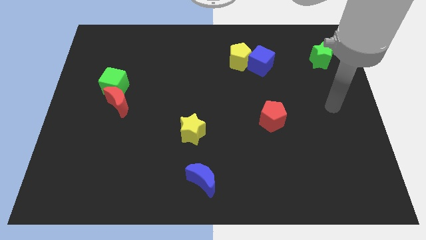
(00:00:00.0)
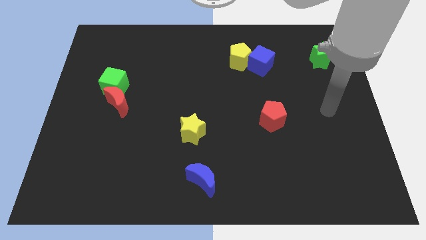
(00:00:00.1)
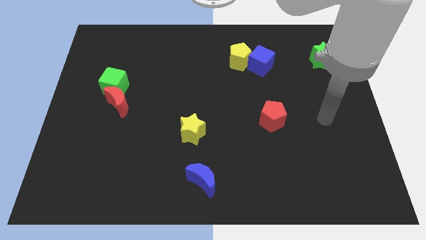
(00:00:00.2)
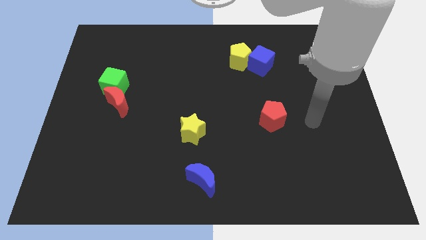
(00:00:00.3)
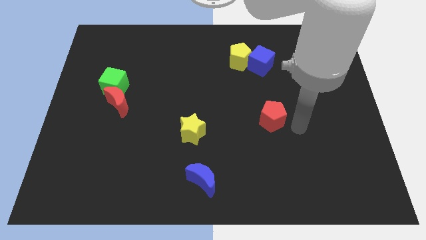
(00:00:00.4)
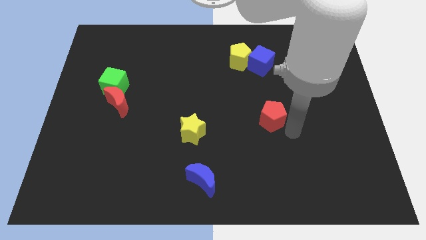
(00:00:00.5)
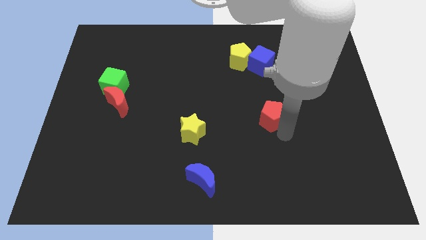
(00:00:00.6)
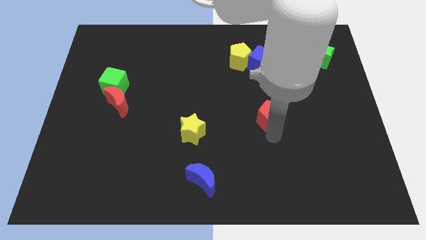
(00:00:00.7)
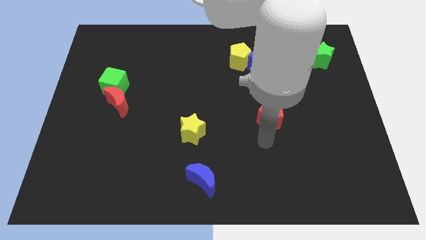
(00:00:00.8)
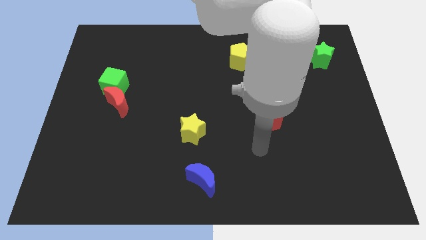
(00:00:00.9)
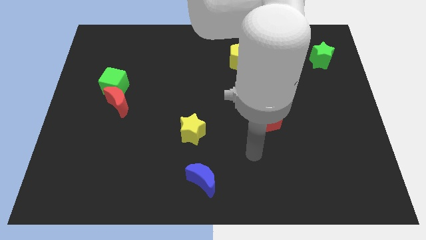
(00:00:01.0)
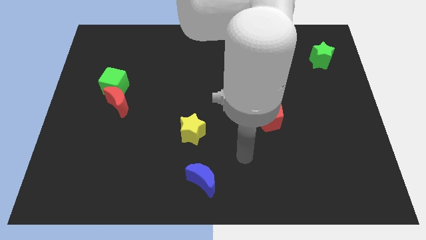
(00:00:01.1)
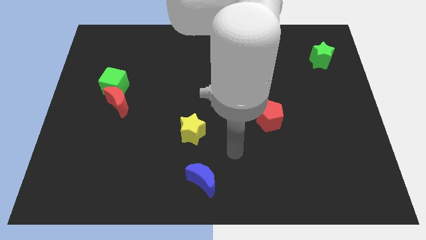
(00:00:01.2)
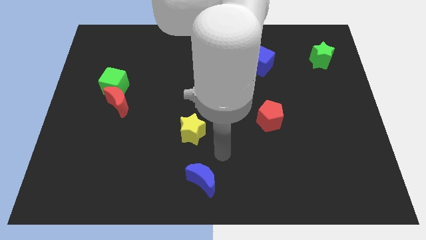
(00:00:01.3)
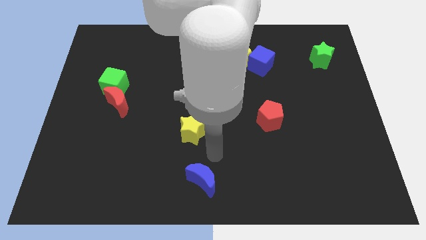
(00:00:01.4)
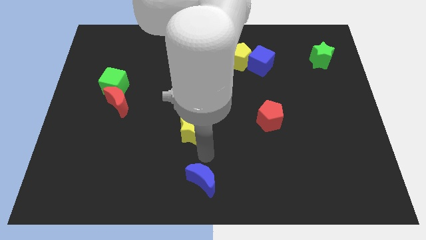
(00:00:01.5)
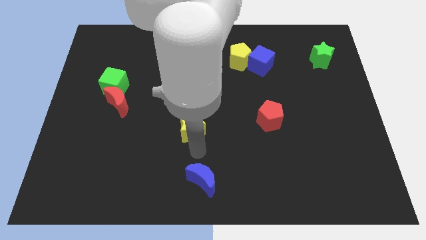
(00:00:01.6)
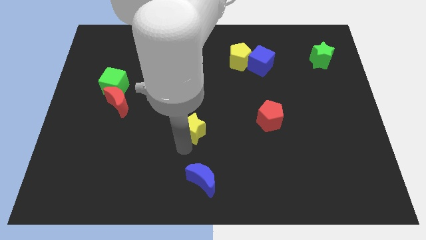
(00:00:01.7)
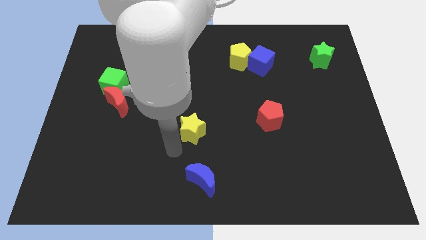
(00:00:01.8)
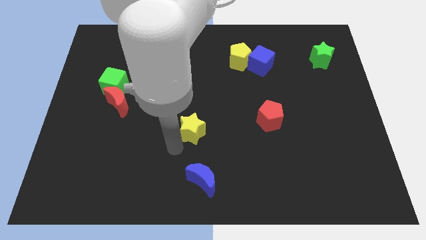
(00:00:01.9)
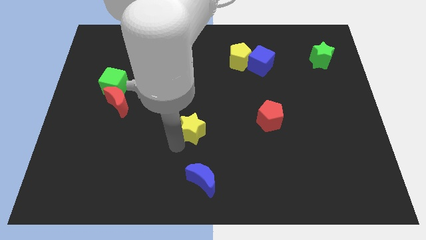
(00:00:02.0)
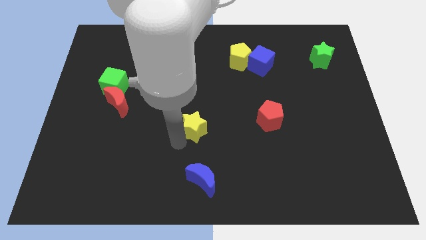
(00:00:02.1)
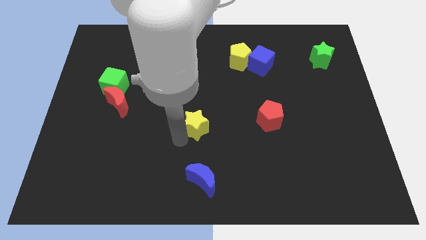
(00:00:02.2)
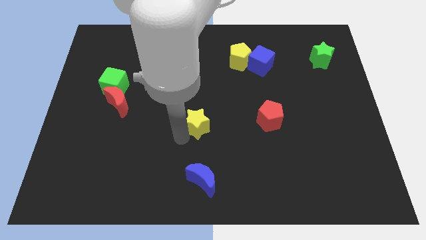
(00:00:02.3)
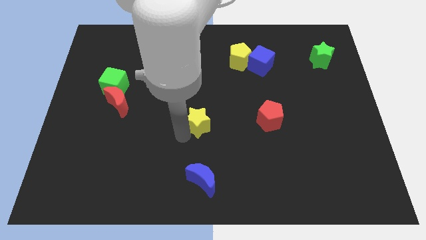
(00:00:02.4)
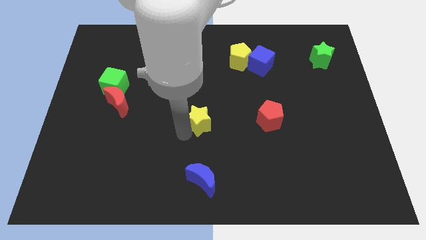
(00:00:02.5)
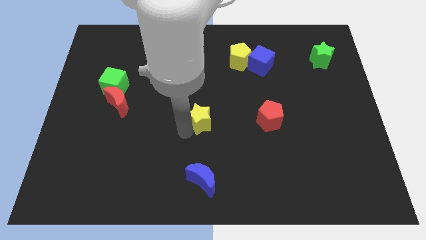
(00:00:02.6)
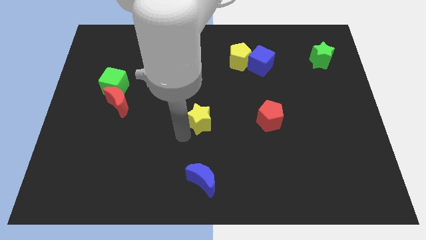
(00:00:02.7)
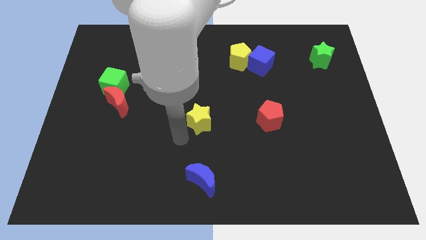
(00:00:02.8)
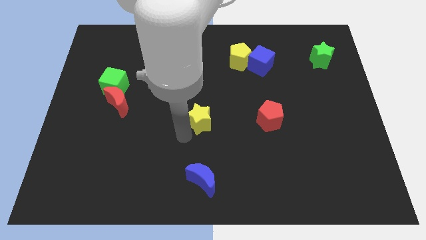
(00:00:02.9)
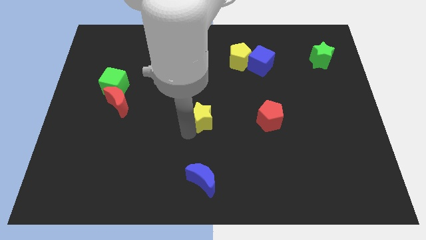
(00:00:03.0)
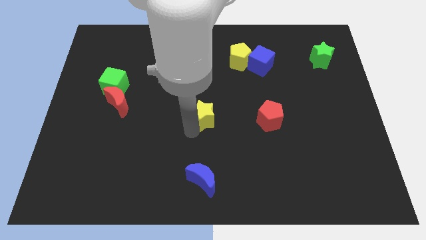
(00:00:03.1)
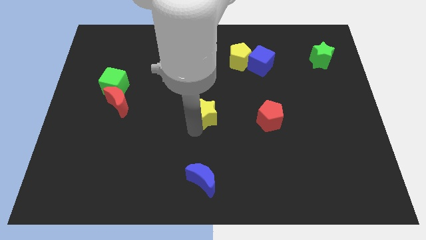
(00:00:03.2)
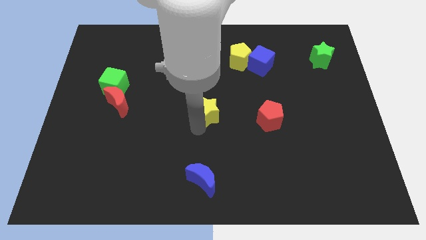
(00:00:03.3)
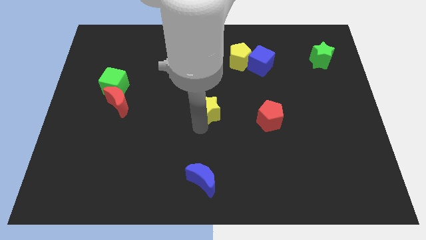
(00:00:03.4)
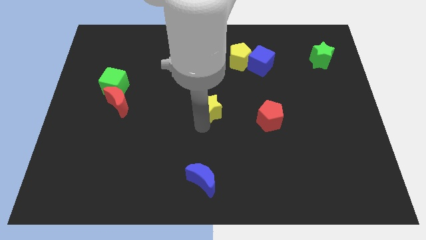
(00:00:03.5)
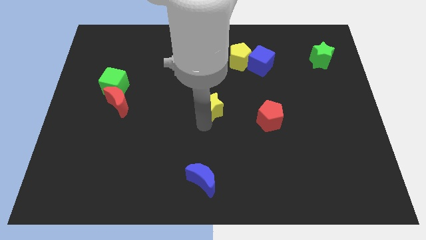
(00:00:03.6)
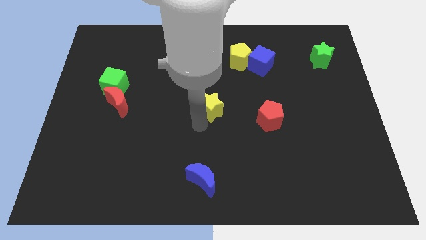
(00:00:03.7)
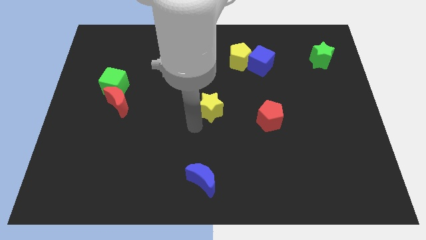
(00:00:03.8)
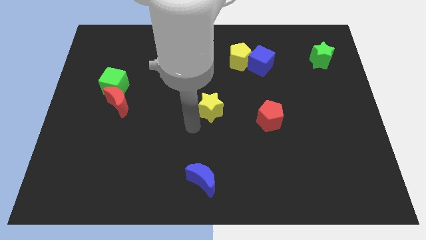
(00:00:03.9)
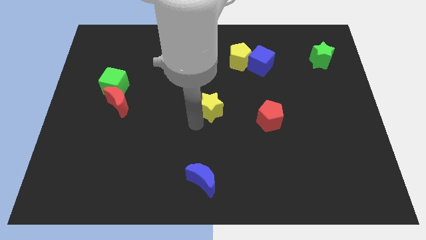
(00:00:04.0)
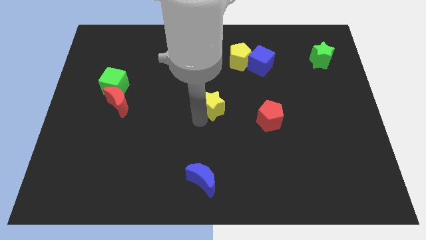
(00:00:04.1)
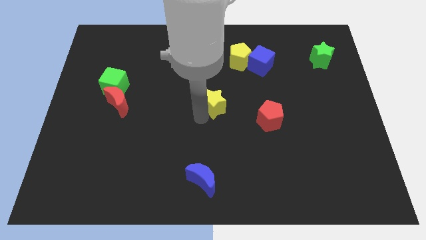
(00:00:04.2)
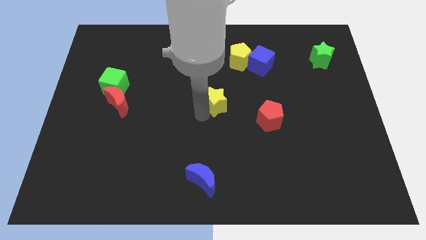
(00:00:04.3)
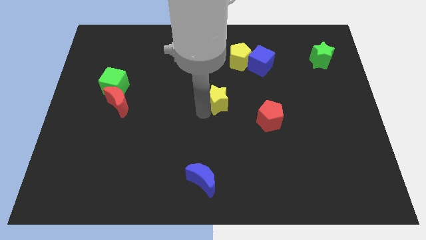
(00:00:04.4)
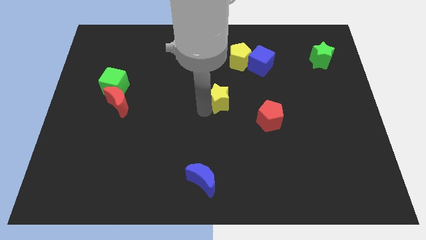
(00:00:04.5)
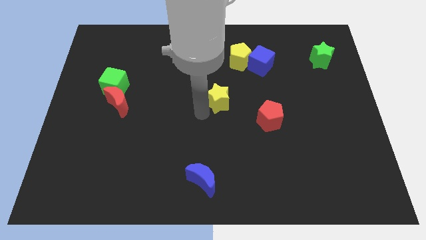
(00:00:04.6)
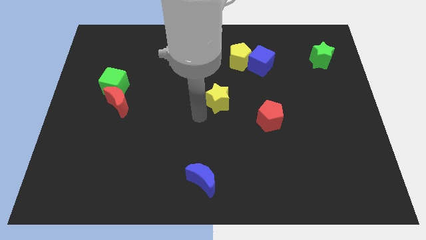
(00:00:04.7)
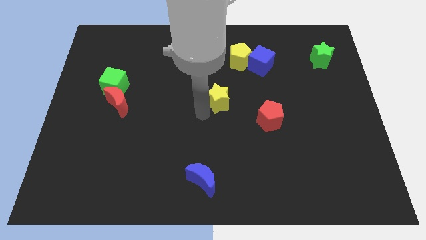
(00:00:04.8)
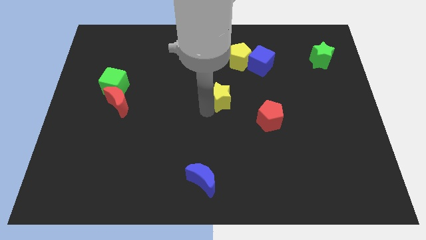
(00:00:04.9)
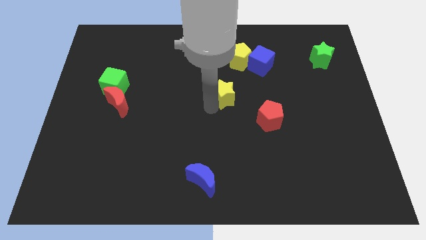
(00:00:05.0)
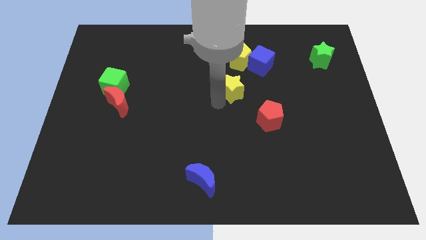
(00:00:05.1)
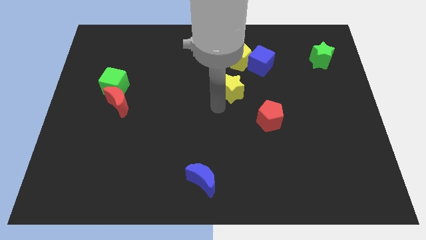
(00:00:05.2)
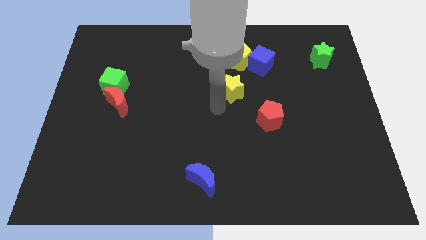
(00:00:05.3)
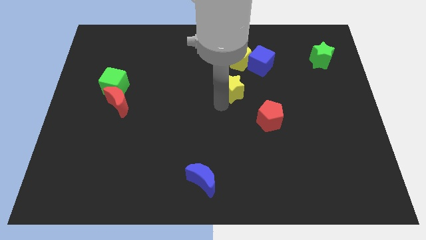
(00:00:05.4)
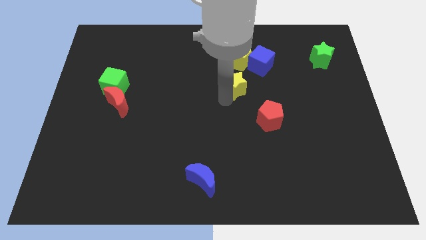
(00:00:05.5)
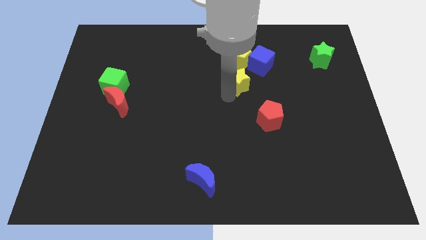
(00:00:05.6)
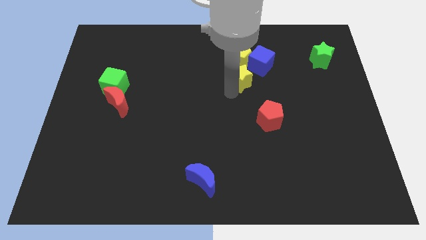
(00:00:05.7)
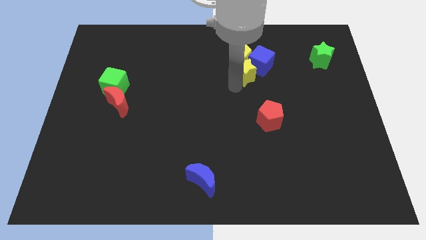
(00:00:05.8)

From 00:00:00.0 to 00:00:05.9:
slide the yellow star towards the blue cube
